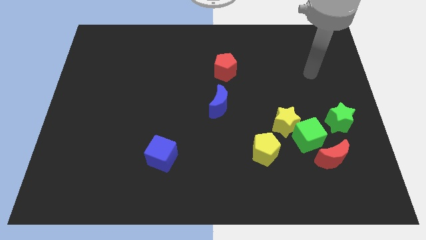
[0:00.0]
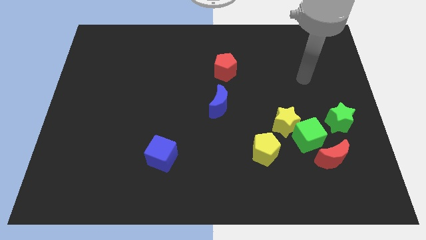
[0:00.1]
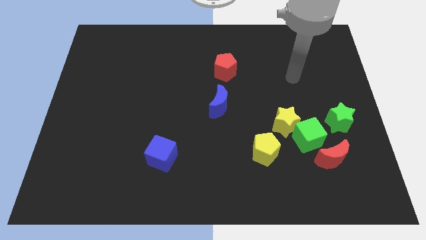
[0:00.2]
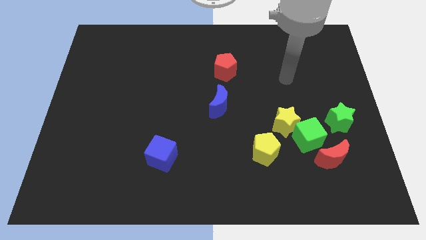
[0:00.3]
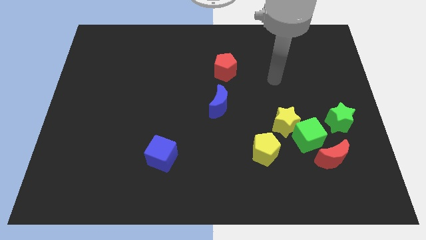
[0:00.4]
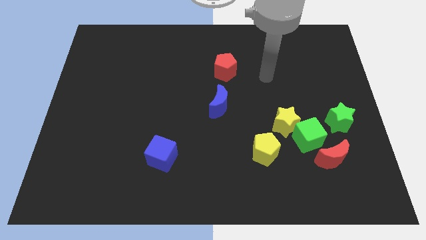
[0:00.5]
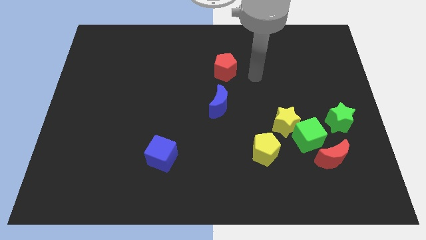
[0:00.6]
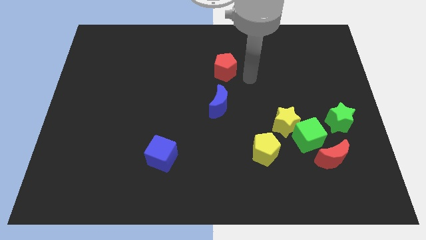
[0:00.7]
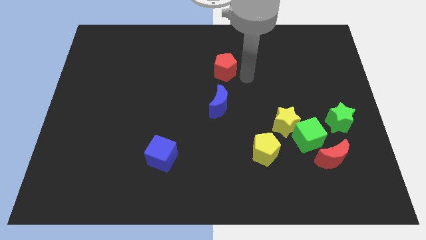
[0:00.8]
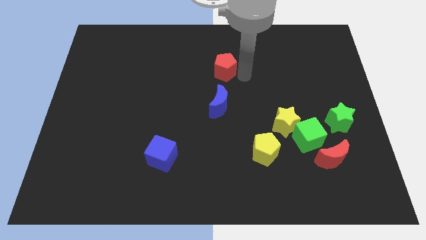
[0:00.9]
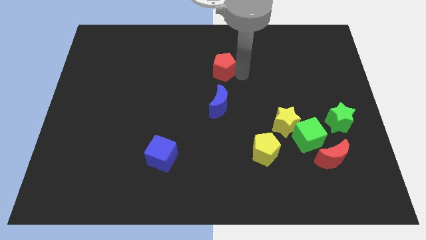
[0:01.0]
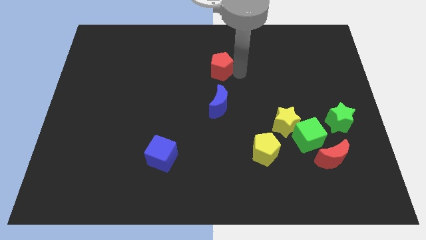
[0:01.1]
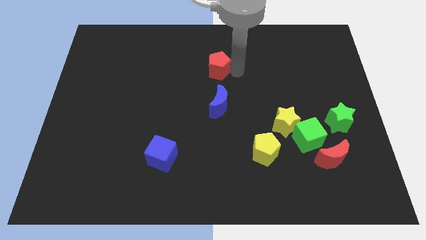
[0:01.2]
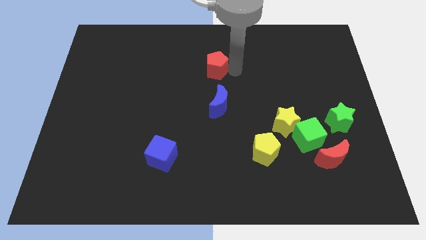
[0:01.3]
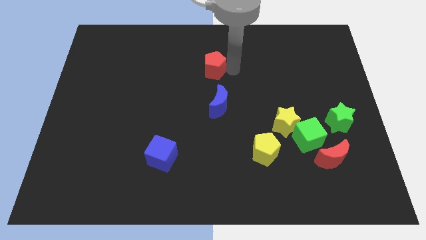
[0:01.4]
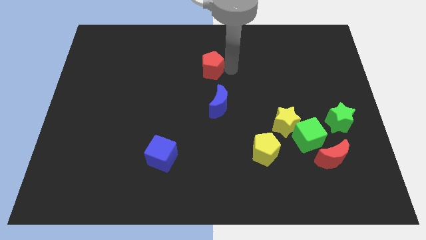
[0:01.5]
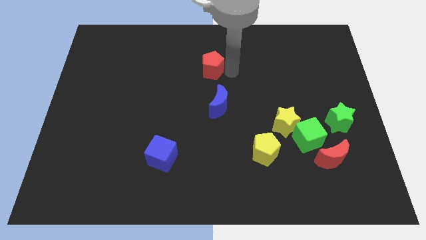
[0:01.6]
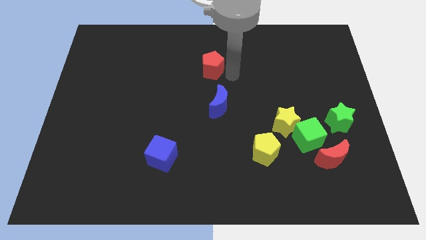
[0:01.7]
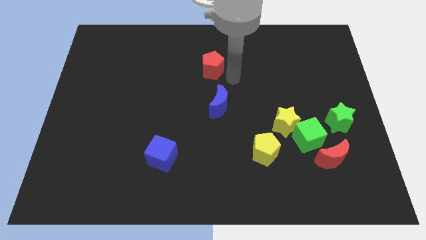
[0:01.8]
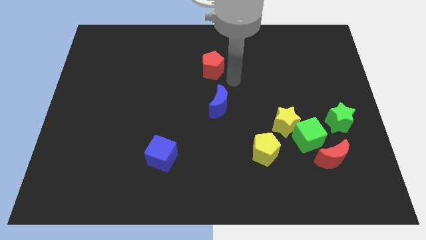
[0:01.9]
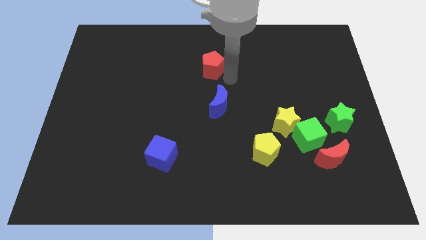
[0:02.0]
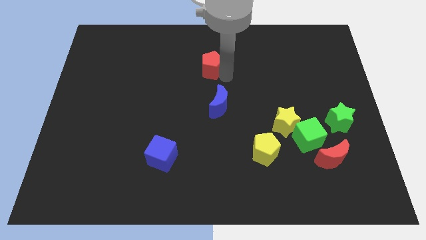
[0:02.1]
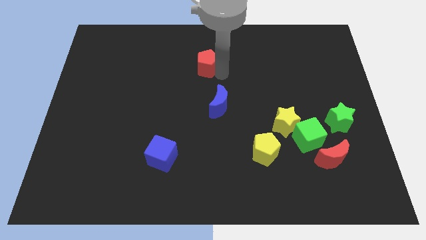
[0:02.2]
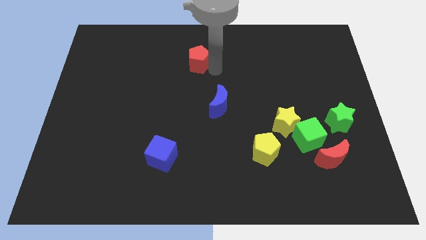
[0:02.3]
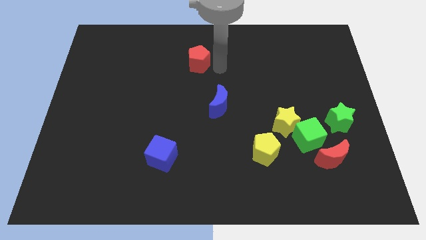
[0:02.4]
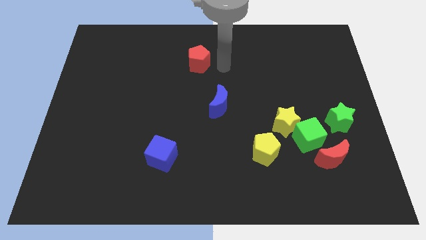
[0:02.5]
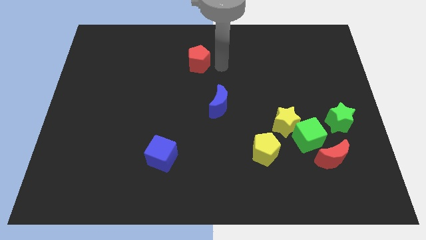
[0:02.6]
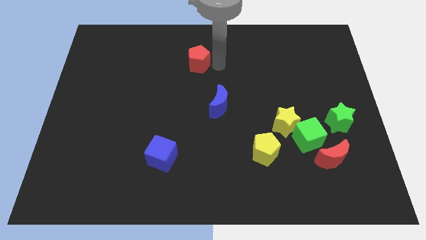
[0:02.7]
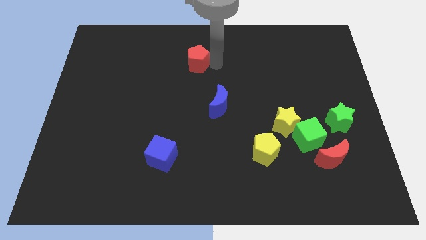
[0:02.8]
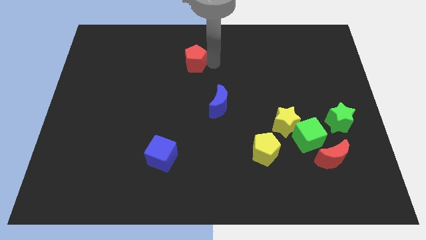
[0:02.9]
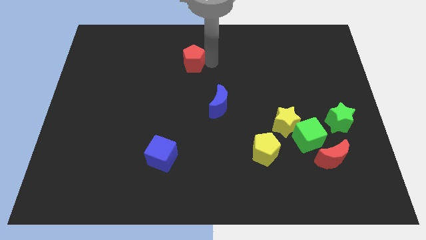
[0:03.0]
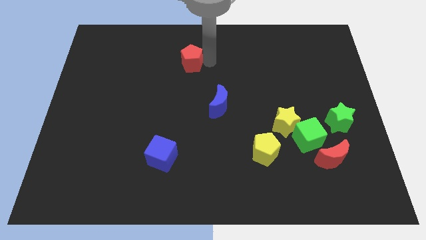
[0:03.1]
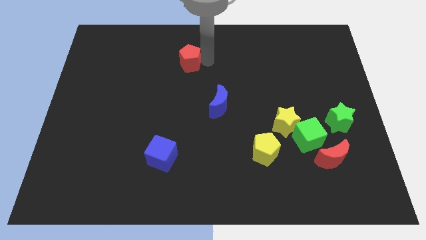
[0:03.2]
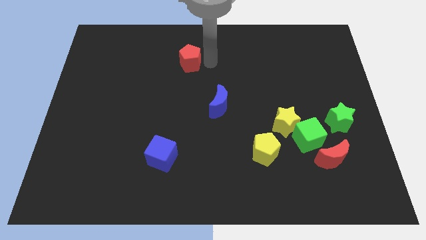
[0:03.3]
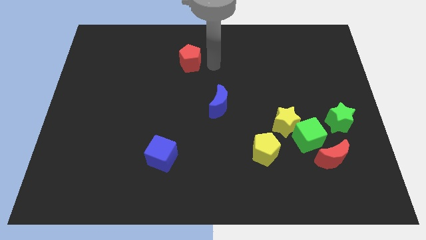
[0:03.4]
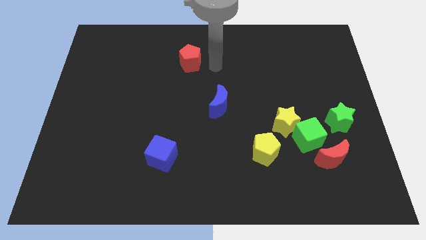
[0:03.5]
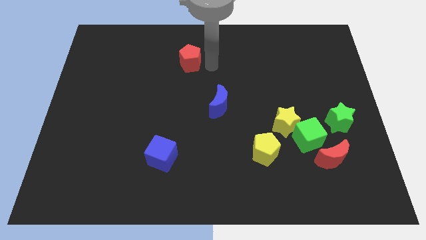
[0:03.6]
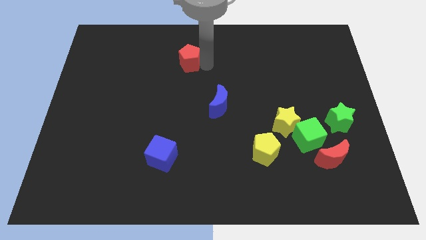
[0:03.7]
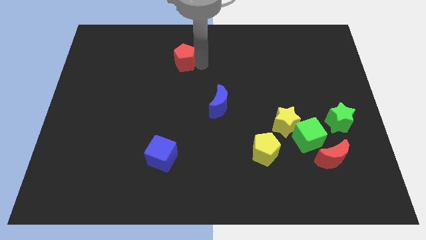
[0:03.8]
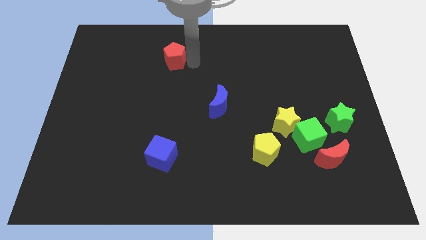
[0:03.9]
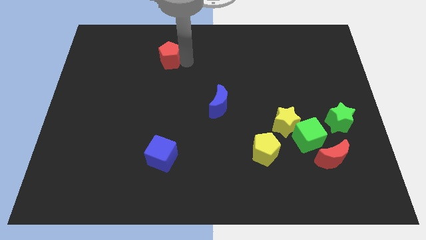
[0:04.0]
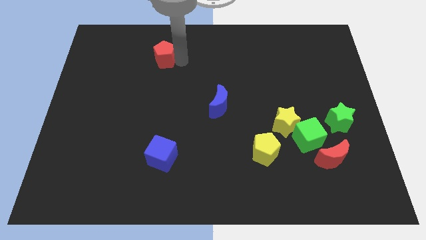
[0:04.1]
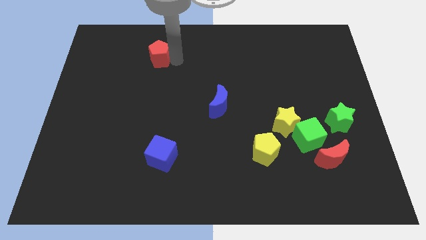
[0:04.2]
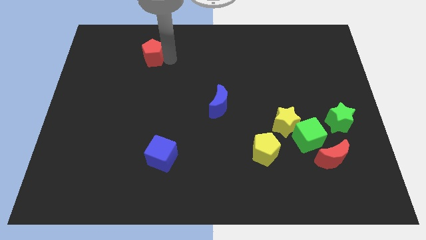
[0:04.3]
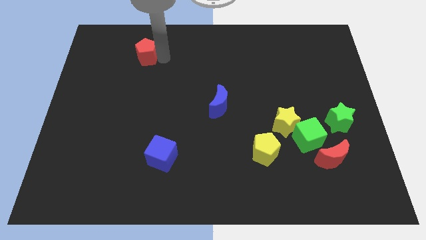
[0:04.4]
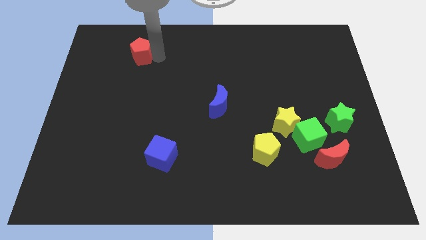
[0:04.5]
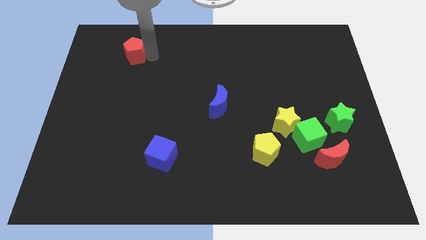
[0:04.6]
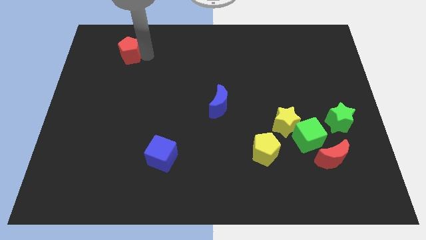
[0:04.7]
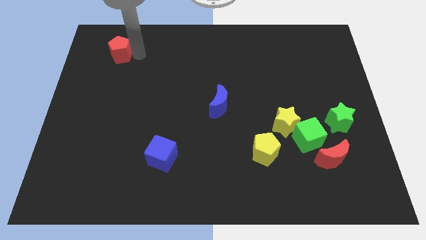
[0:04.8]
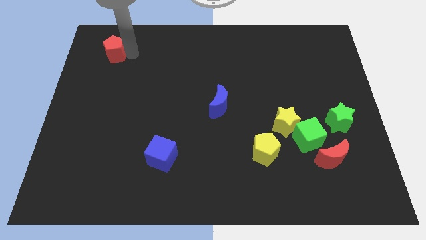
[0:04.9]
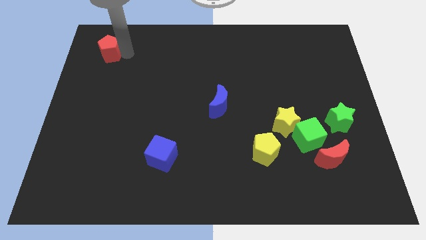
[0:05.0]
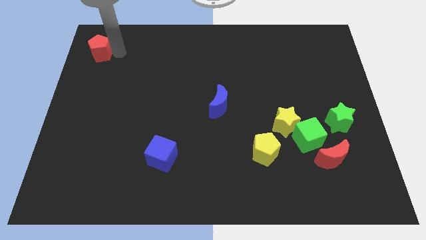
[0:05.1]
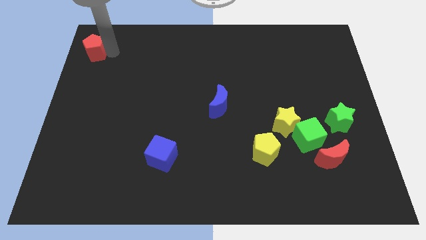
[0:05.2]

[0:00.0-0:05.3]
put the red pentagon to the top left
